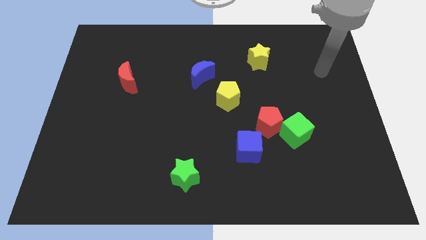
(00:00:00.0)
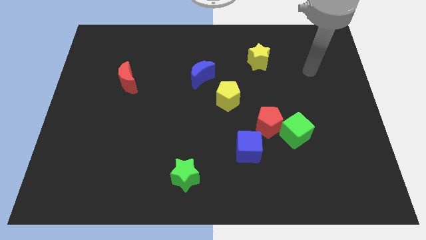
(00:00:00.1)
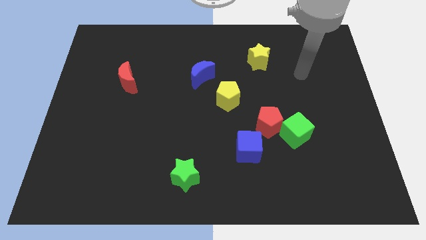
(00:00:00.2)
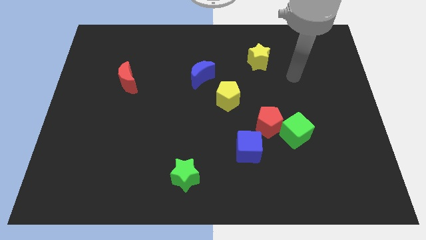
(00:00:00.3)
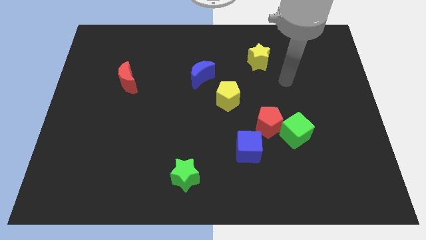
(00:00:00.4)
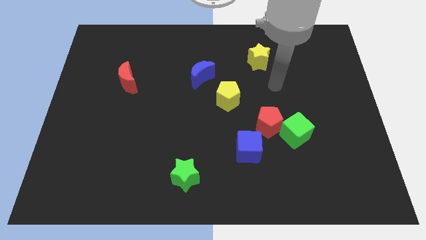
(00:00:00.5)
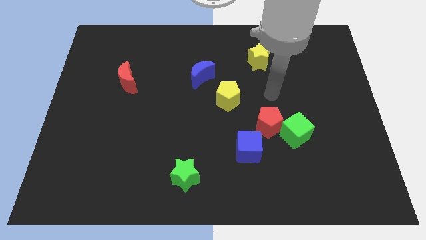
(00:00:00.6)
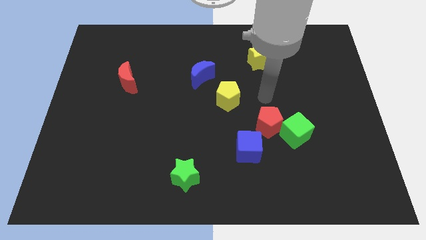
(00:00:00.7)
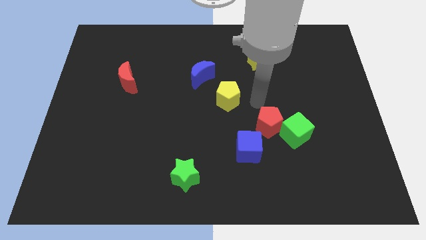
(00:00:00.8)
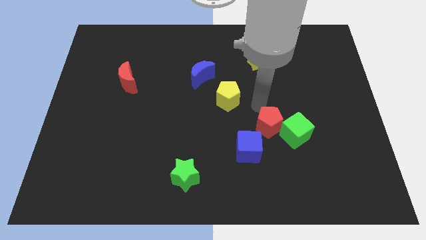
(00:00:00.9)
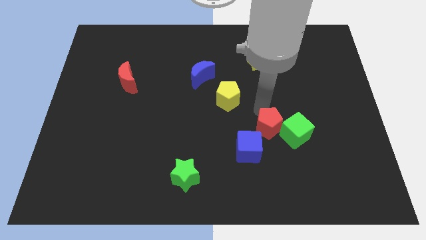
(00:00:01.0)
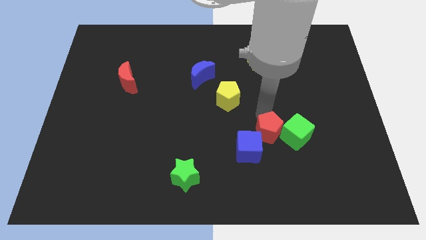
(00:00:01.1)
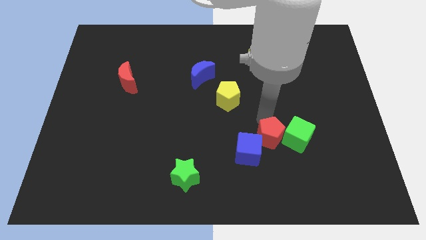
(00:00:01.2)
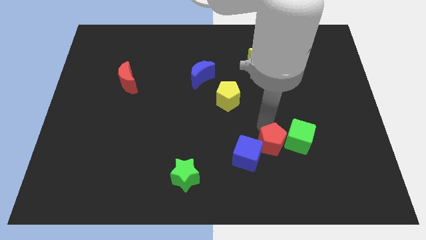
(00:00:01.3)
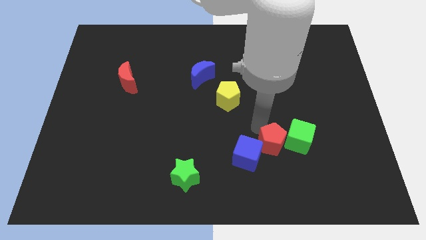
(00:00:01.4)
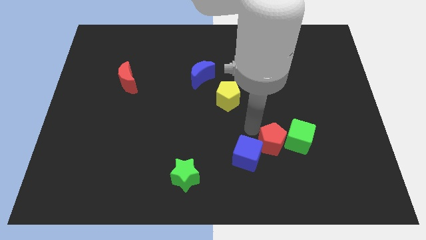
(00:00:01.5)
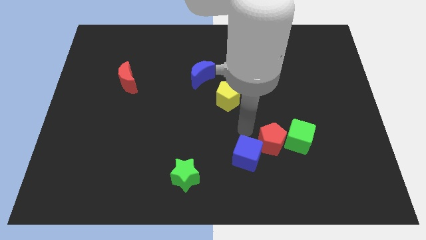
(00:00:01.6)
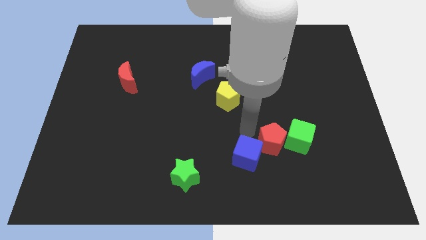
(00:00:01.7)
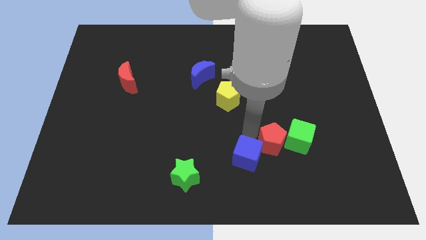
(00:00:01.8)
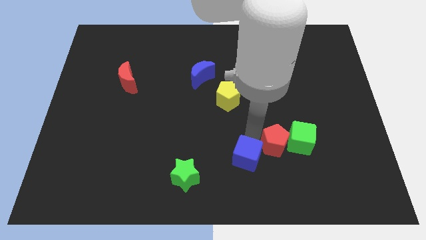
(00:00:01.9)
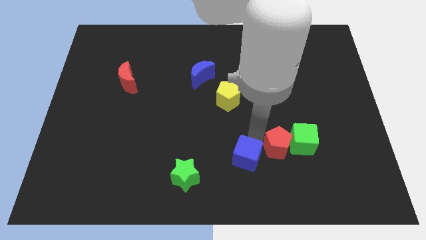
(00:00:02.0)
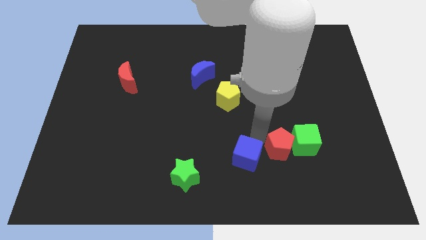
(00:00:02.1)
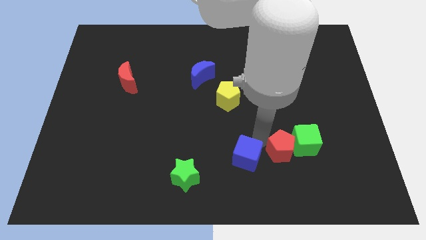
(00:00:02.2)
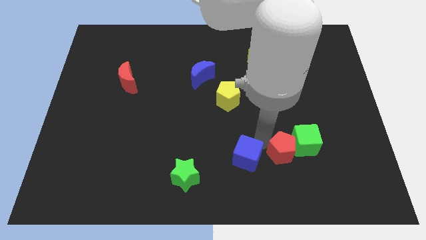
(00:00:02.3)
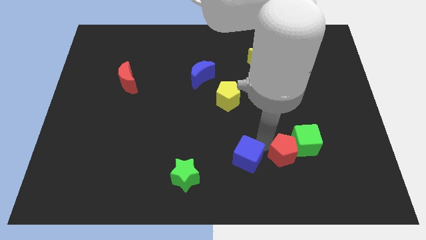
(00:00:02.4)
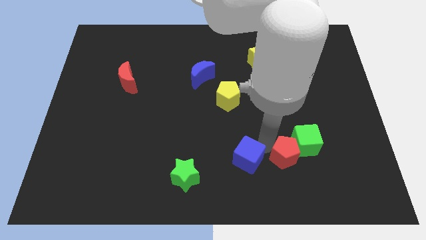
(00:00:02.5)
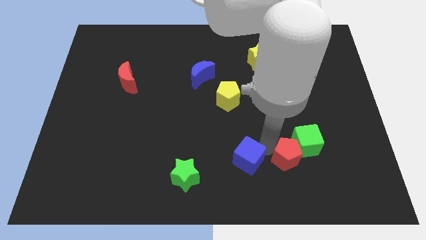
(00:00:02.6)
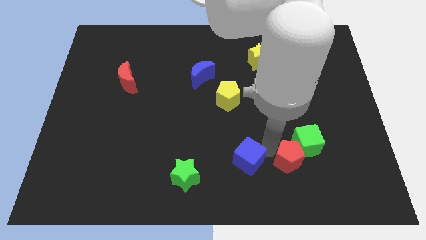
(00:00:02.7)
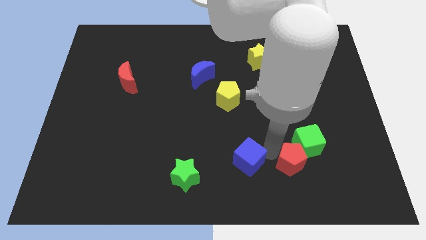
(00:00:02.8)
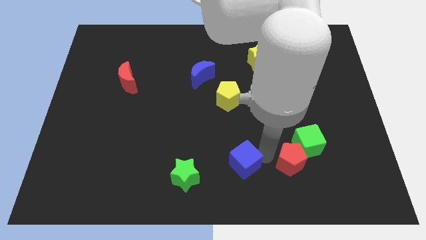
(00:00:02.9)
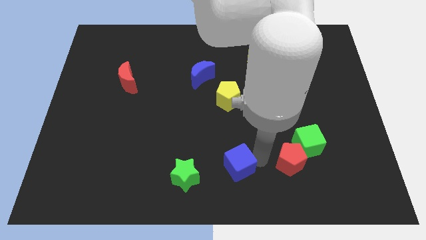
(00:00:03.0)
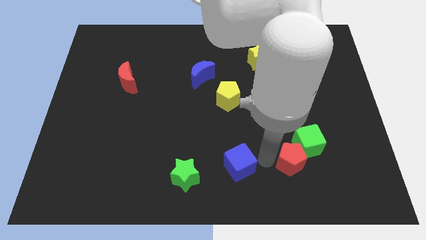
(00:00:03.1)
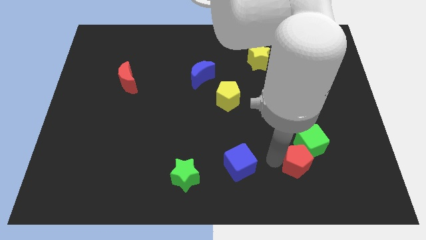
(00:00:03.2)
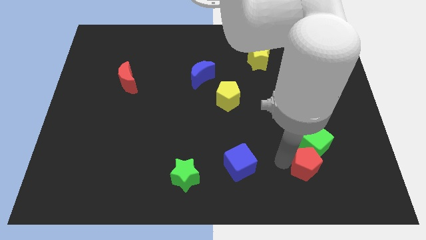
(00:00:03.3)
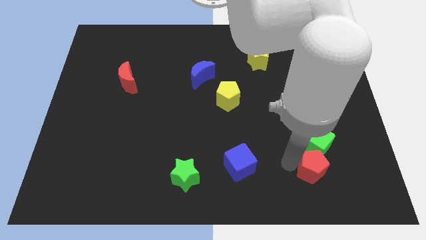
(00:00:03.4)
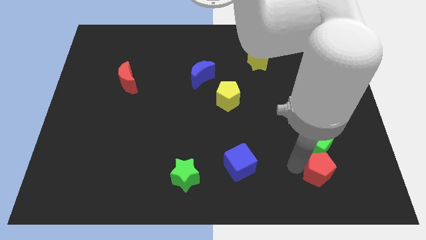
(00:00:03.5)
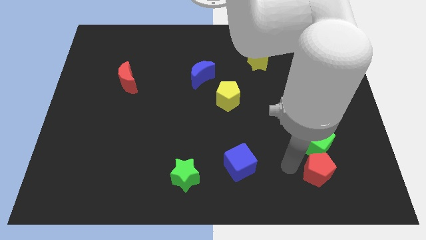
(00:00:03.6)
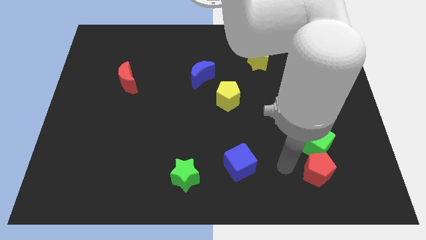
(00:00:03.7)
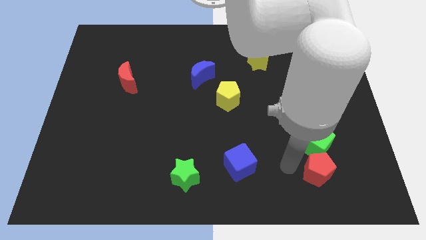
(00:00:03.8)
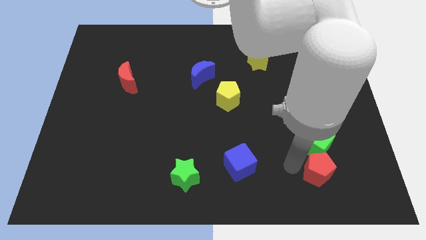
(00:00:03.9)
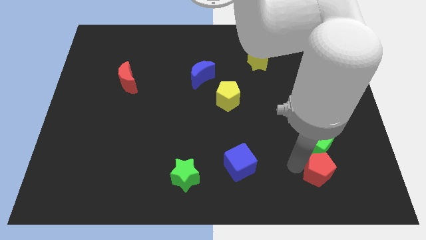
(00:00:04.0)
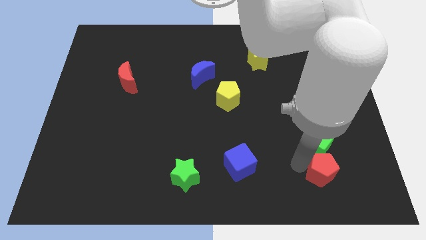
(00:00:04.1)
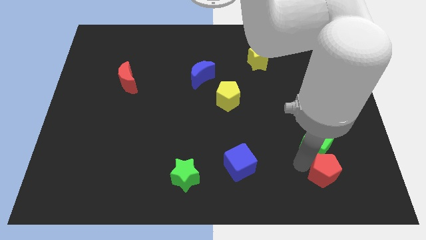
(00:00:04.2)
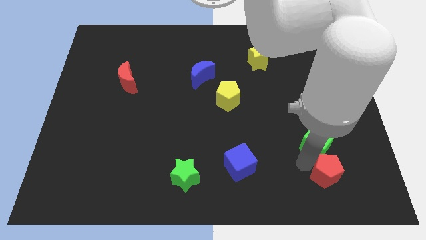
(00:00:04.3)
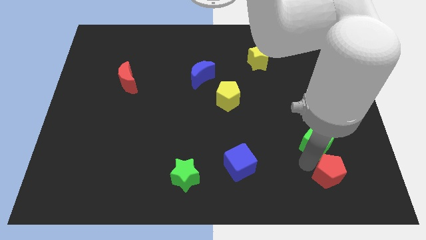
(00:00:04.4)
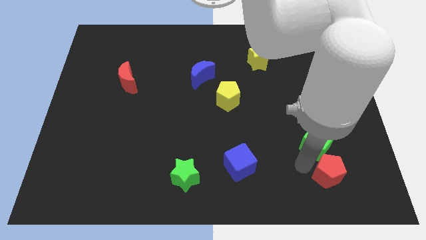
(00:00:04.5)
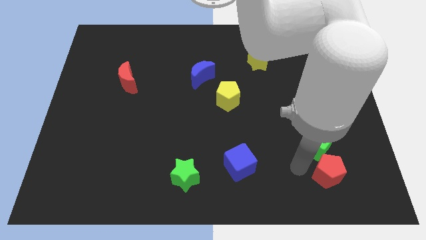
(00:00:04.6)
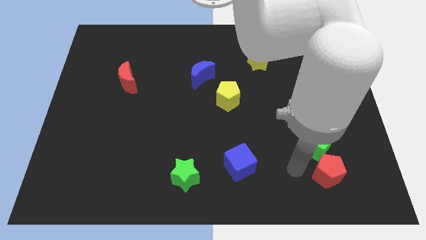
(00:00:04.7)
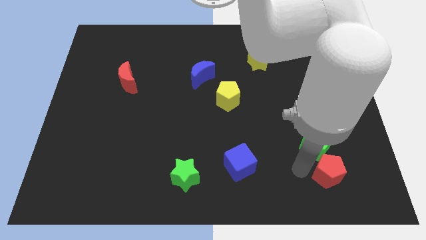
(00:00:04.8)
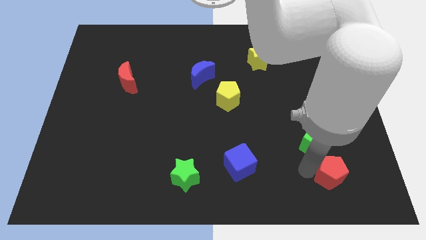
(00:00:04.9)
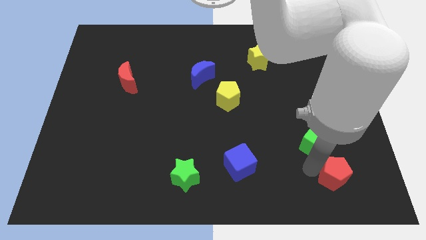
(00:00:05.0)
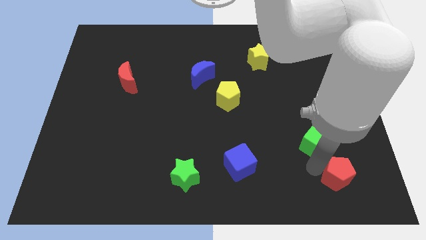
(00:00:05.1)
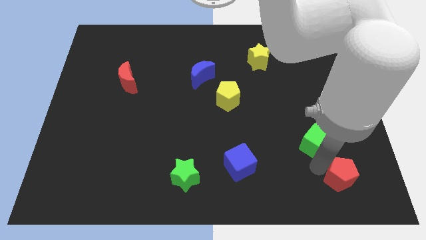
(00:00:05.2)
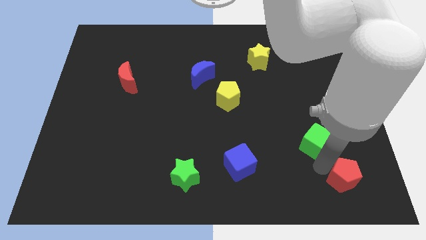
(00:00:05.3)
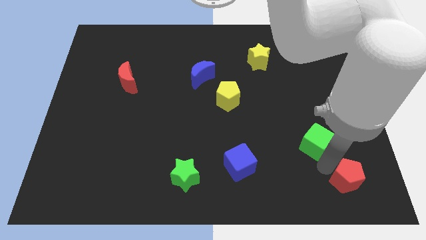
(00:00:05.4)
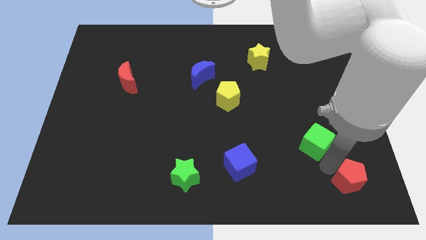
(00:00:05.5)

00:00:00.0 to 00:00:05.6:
slide the red pentagon to the bottom right
